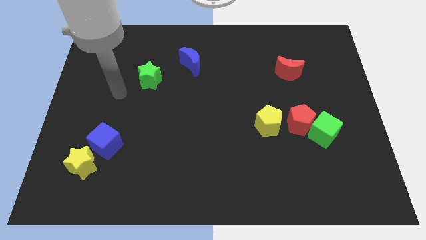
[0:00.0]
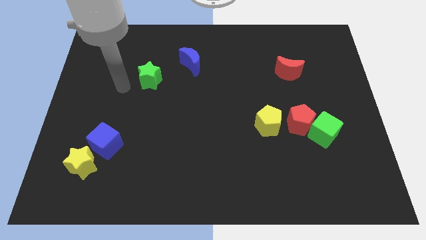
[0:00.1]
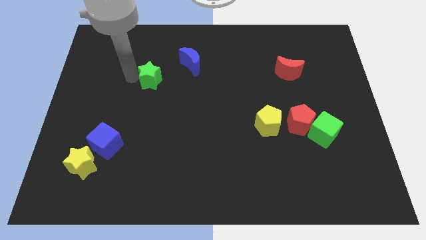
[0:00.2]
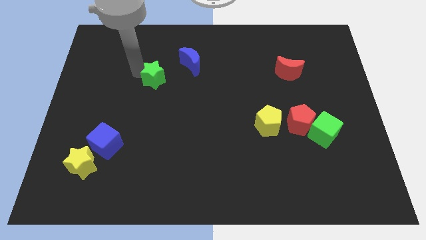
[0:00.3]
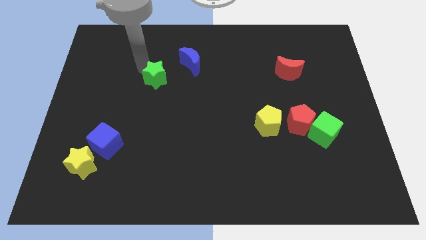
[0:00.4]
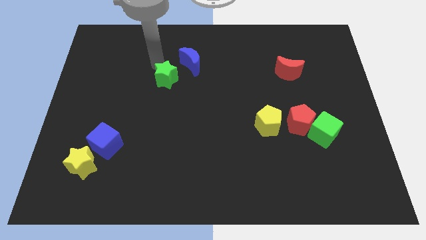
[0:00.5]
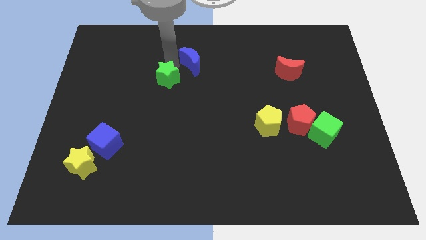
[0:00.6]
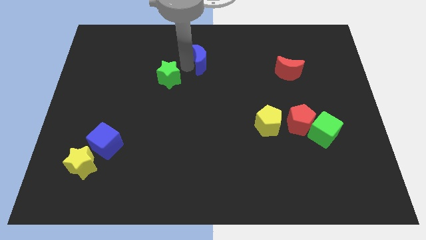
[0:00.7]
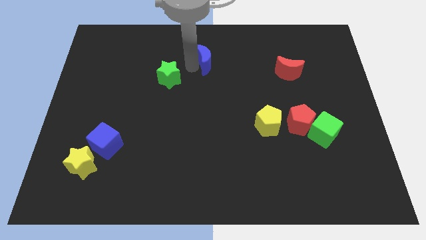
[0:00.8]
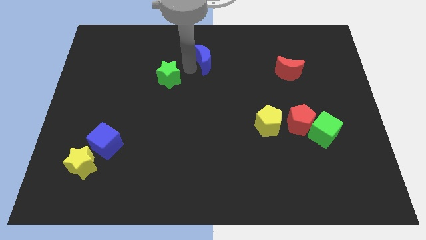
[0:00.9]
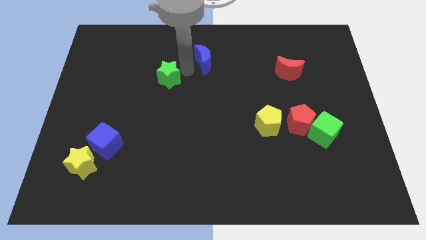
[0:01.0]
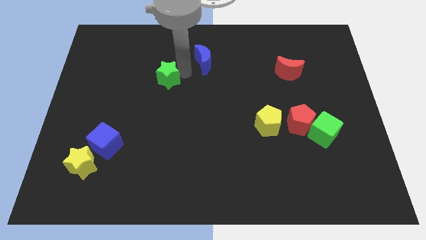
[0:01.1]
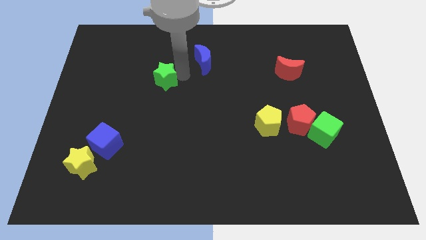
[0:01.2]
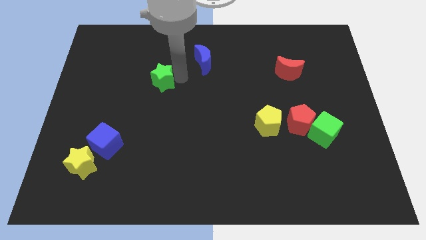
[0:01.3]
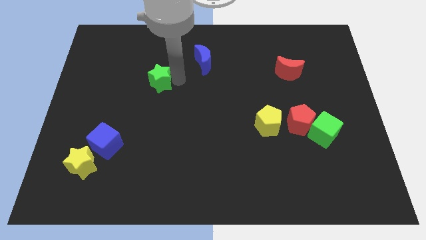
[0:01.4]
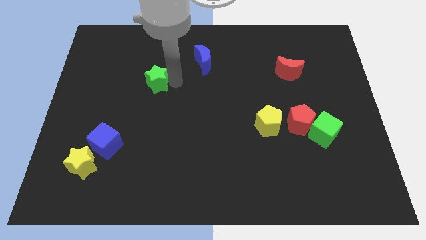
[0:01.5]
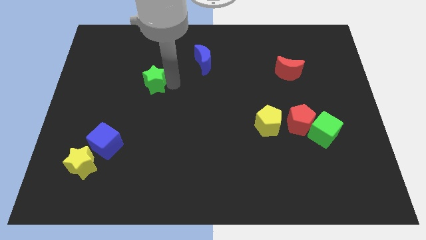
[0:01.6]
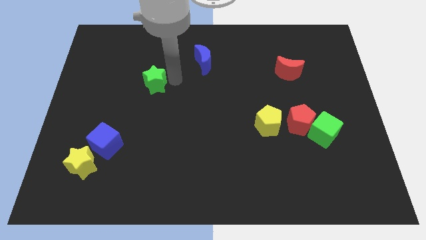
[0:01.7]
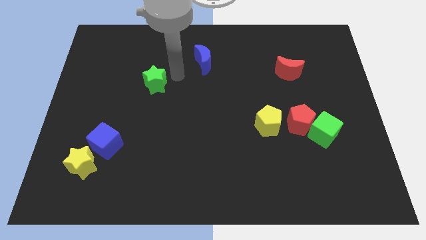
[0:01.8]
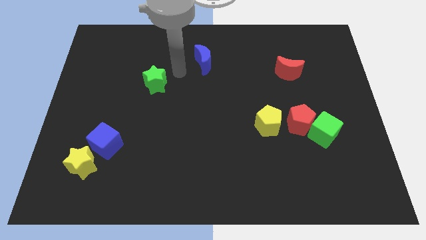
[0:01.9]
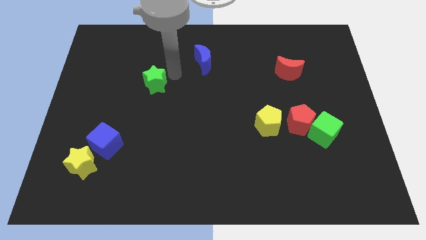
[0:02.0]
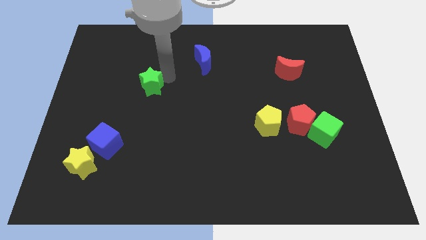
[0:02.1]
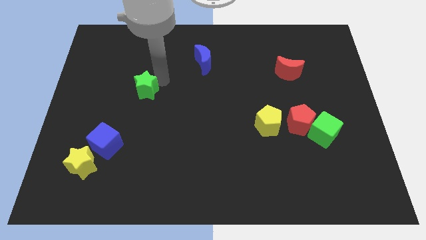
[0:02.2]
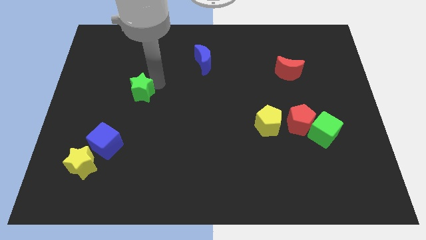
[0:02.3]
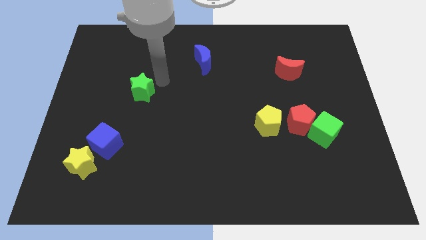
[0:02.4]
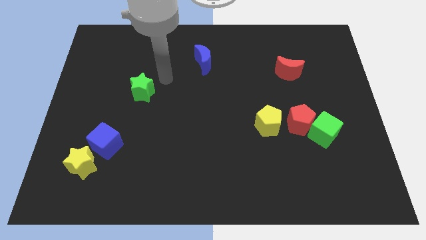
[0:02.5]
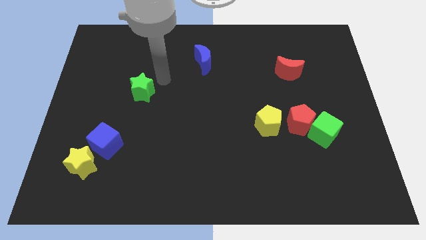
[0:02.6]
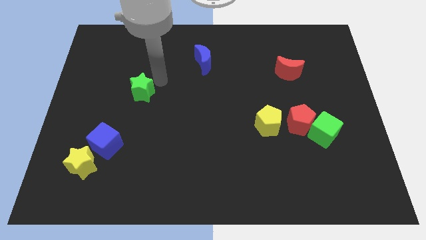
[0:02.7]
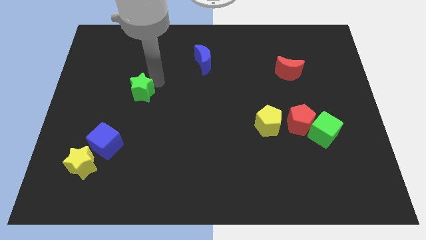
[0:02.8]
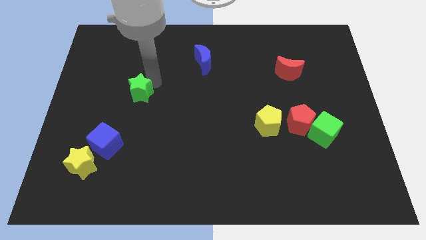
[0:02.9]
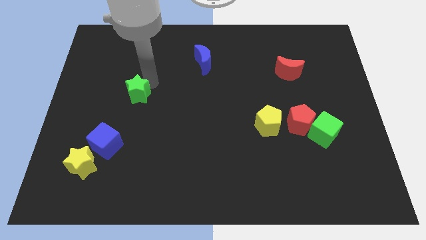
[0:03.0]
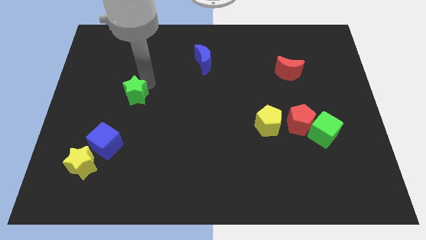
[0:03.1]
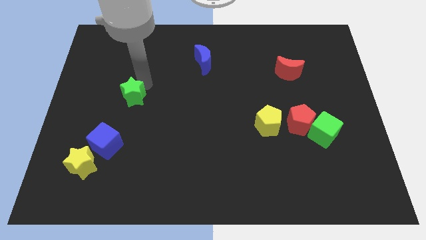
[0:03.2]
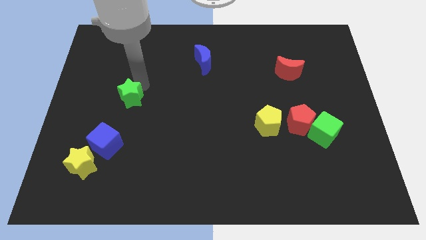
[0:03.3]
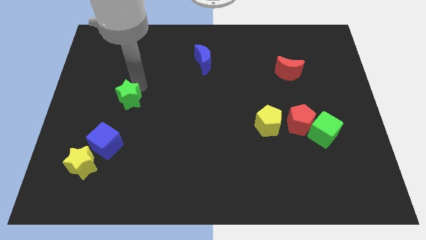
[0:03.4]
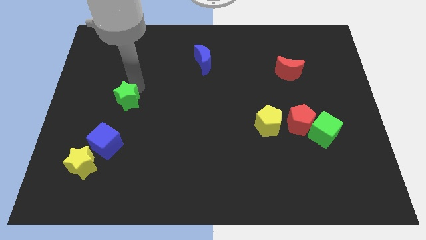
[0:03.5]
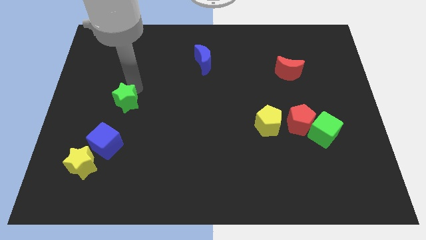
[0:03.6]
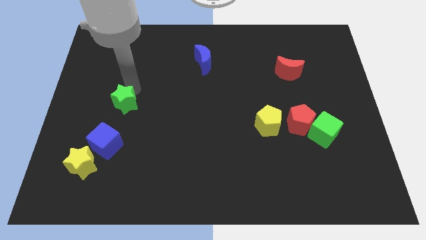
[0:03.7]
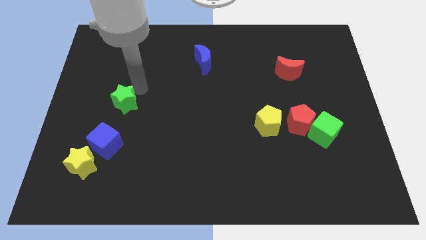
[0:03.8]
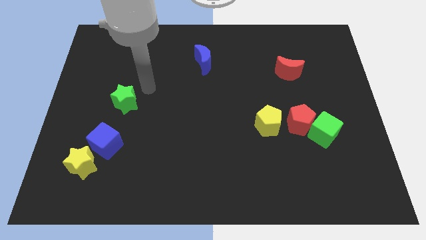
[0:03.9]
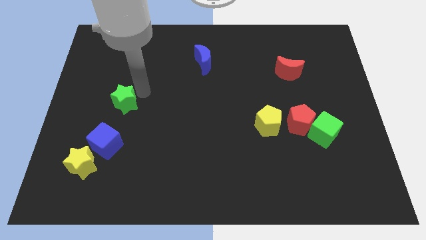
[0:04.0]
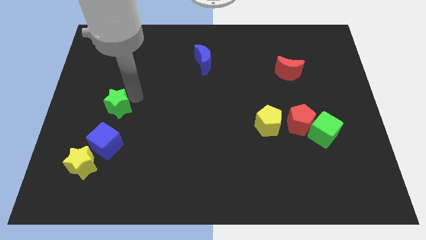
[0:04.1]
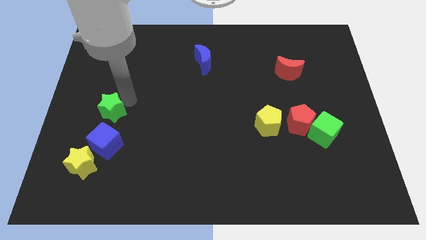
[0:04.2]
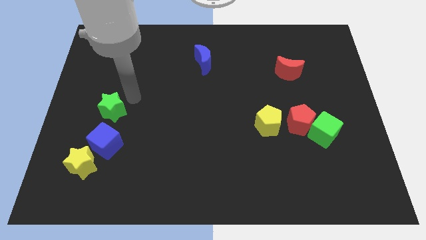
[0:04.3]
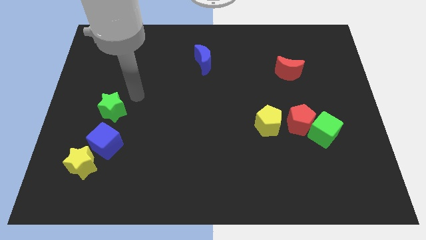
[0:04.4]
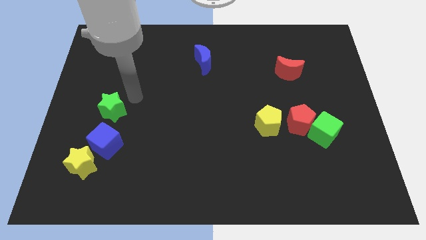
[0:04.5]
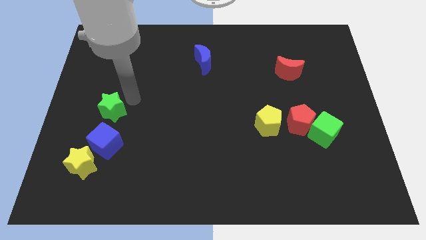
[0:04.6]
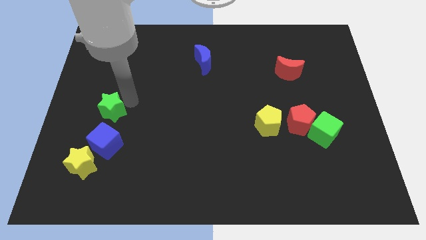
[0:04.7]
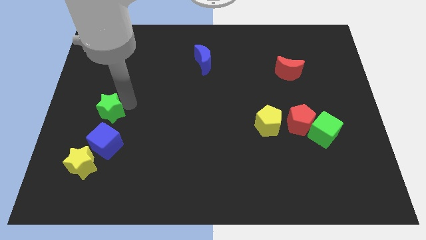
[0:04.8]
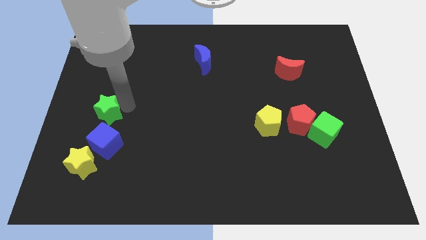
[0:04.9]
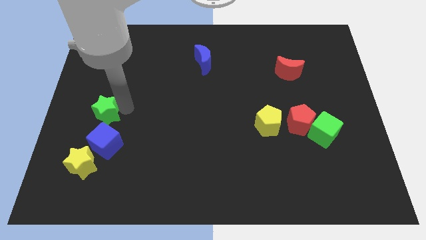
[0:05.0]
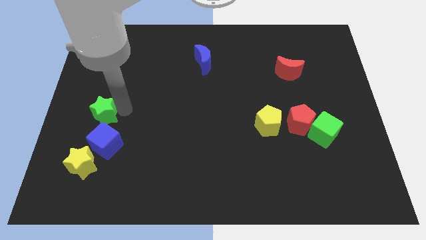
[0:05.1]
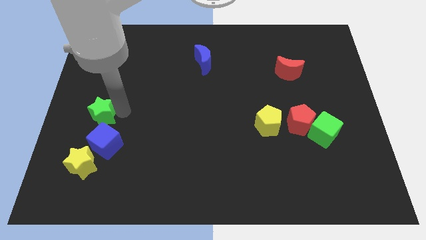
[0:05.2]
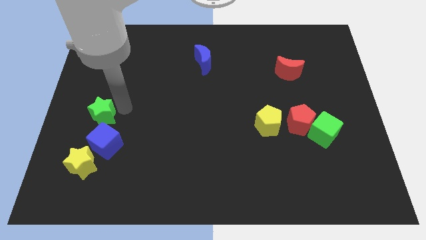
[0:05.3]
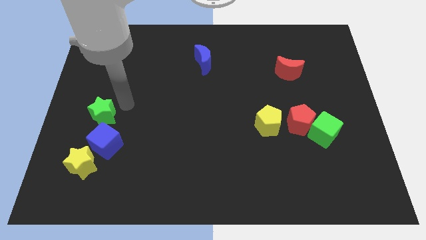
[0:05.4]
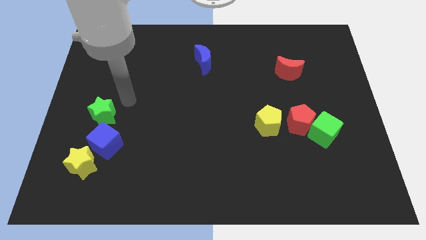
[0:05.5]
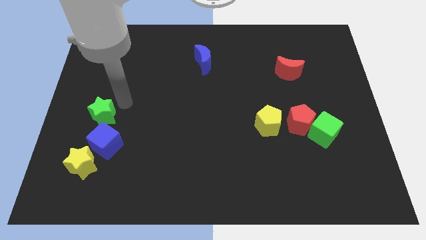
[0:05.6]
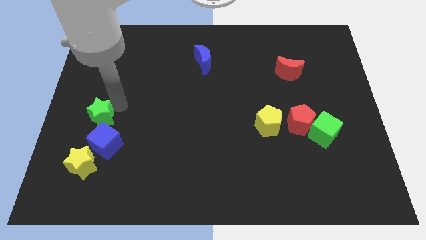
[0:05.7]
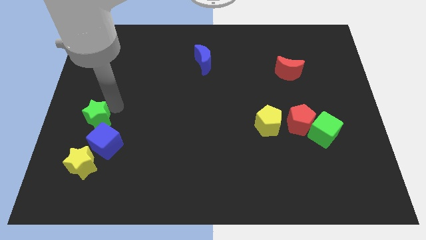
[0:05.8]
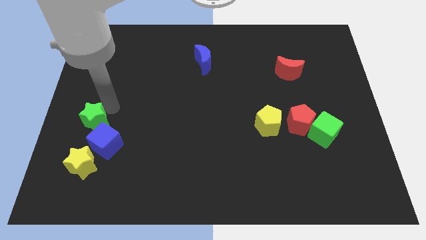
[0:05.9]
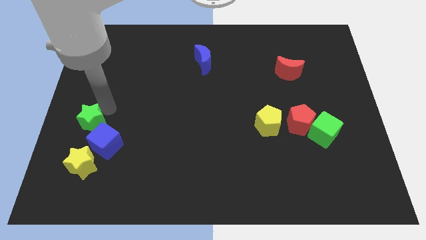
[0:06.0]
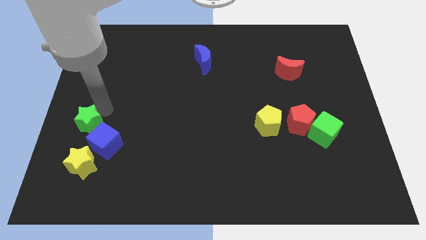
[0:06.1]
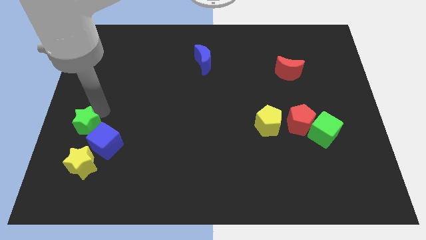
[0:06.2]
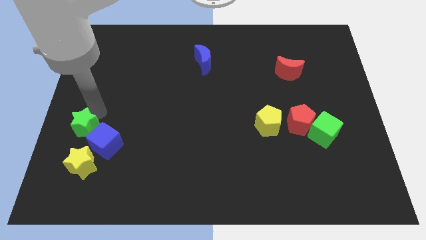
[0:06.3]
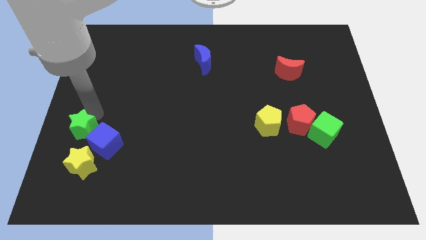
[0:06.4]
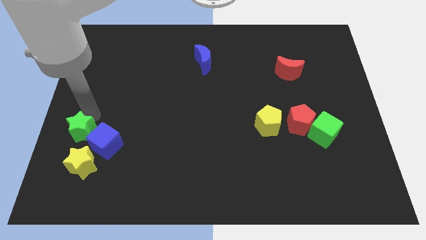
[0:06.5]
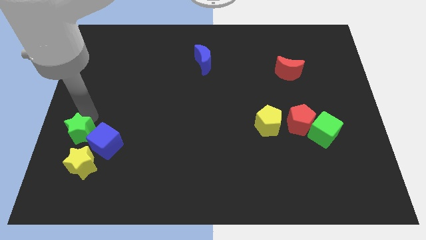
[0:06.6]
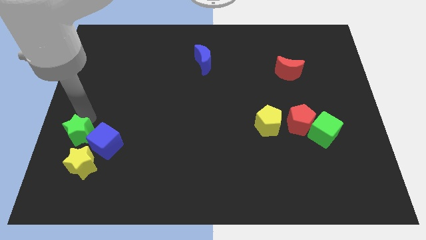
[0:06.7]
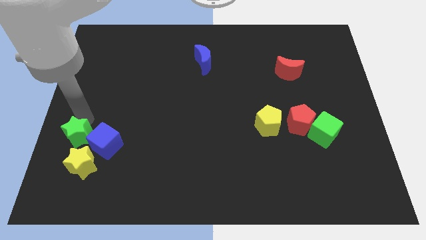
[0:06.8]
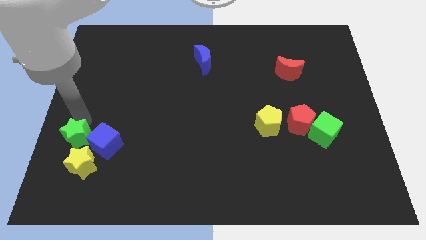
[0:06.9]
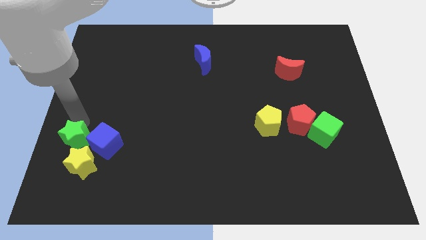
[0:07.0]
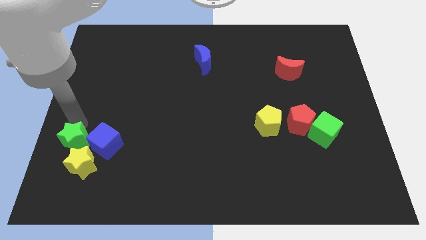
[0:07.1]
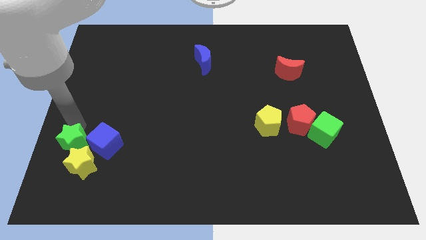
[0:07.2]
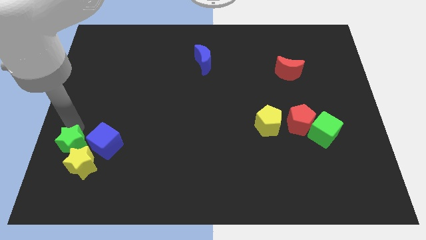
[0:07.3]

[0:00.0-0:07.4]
put the green star towards the yellow star

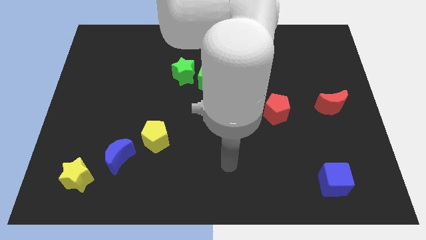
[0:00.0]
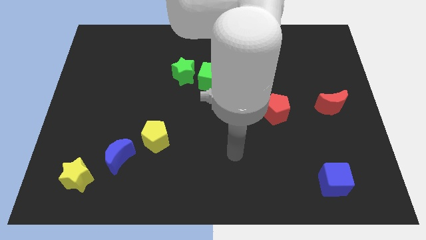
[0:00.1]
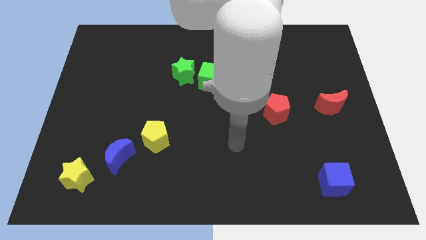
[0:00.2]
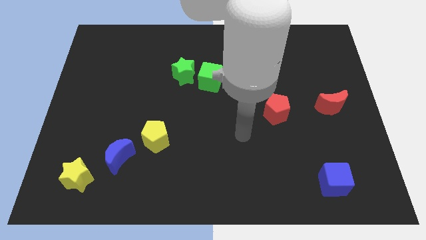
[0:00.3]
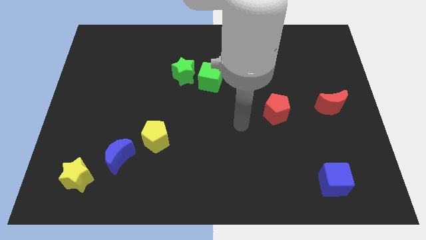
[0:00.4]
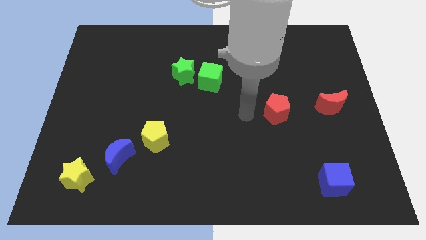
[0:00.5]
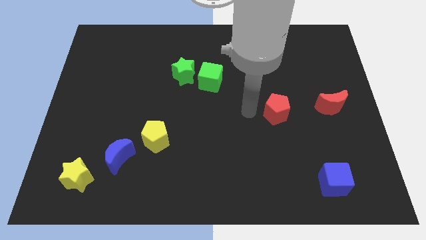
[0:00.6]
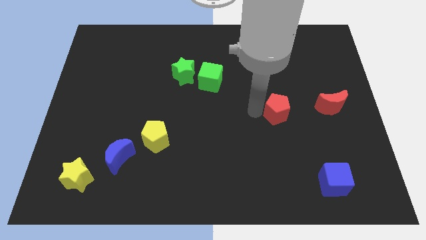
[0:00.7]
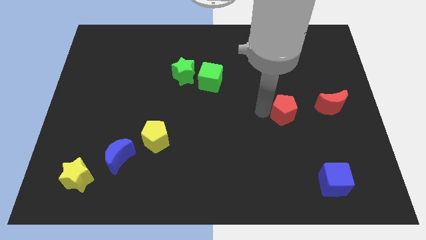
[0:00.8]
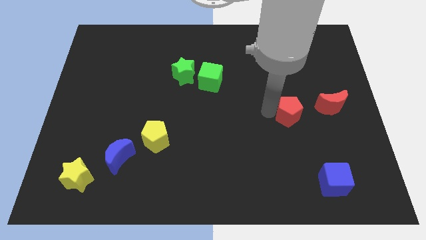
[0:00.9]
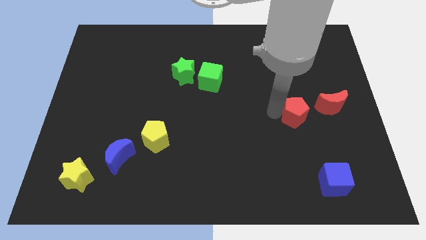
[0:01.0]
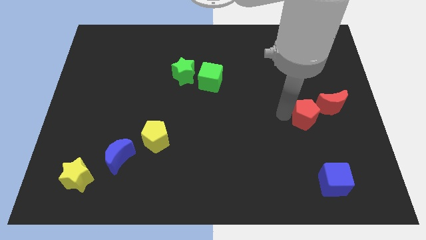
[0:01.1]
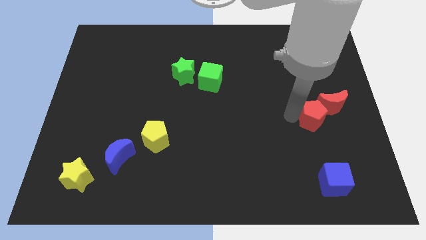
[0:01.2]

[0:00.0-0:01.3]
slide the red pentagon to the red moon
